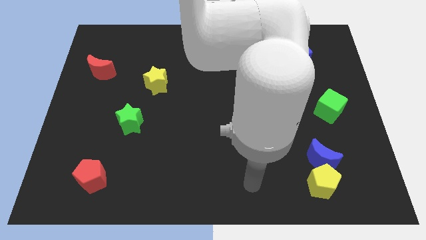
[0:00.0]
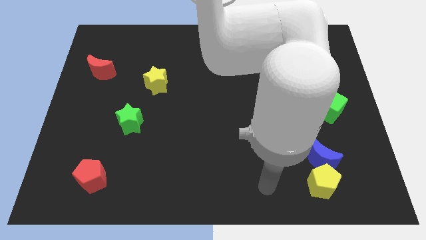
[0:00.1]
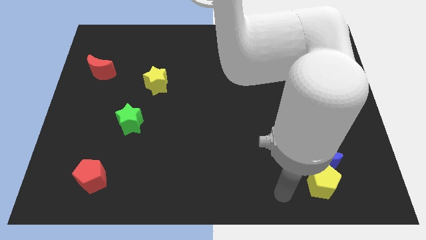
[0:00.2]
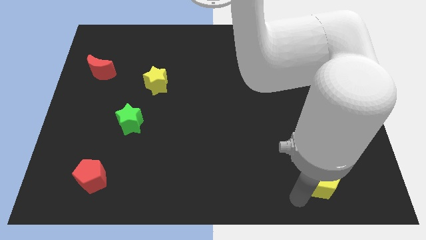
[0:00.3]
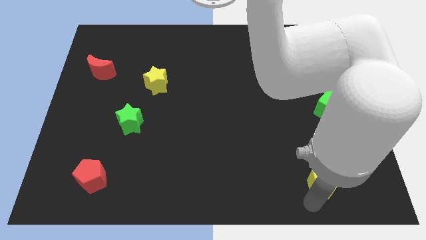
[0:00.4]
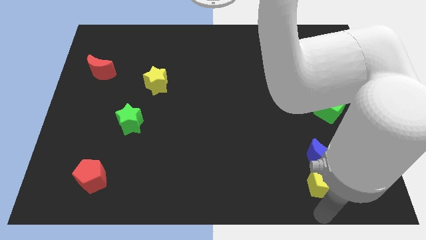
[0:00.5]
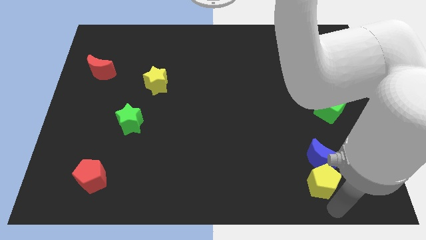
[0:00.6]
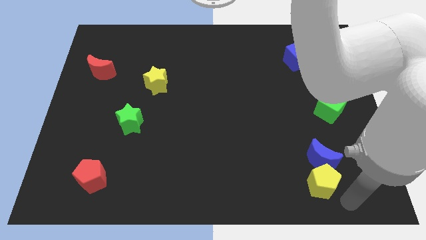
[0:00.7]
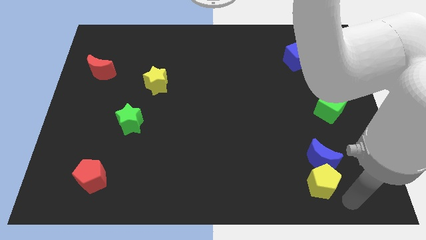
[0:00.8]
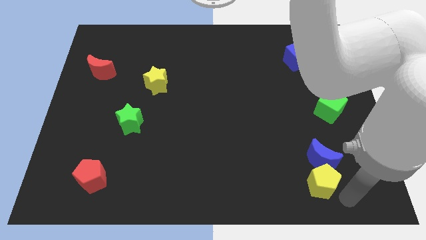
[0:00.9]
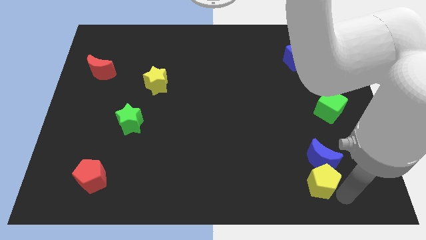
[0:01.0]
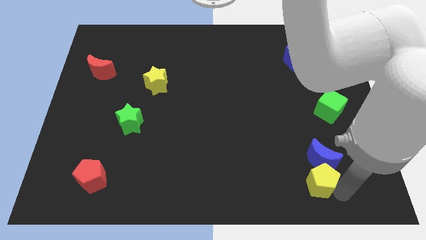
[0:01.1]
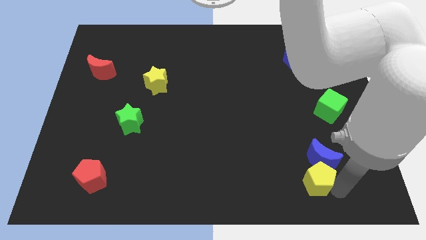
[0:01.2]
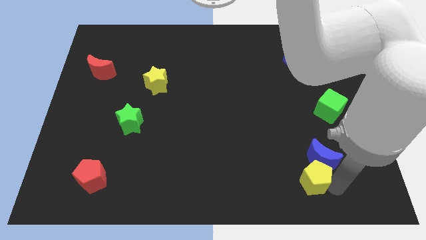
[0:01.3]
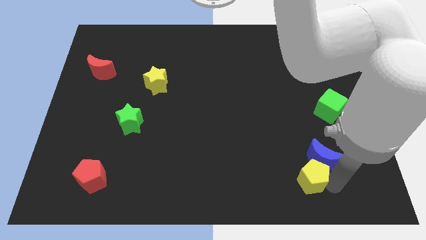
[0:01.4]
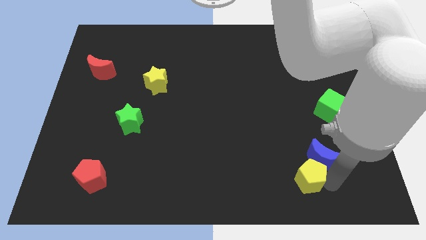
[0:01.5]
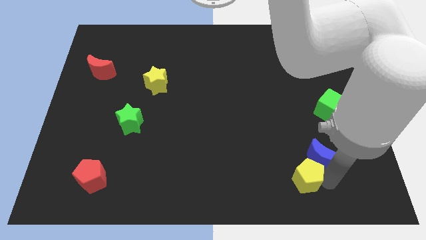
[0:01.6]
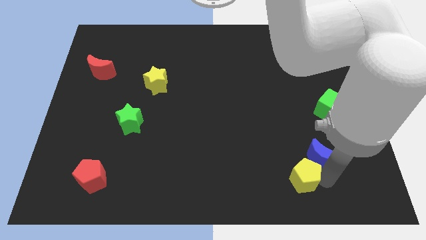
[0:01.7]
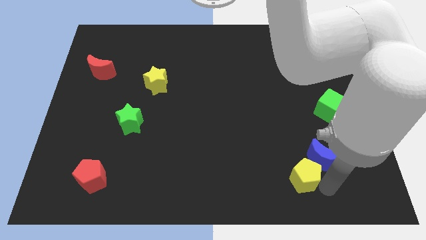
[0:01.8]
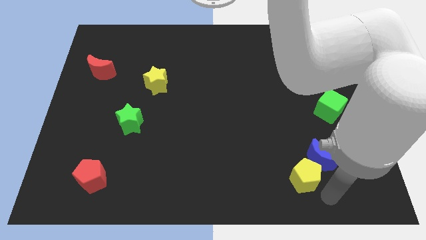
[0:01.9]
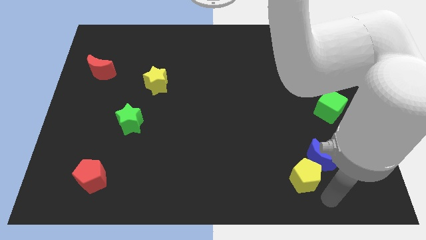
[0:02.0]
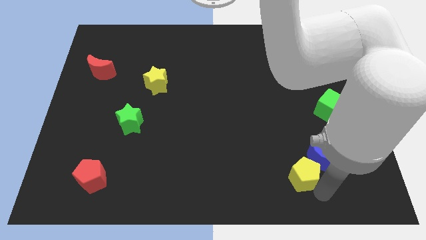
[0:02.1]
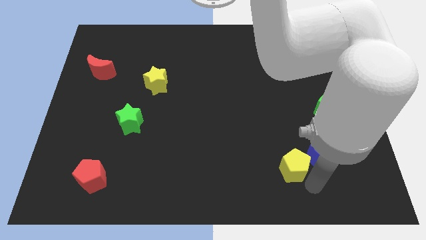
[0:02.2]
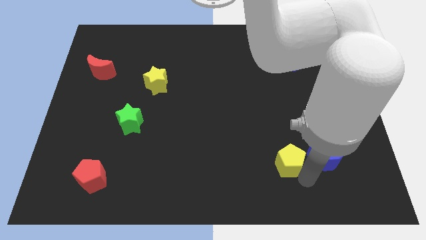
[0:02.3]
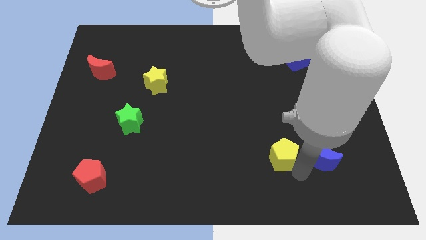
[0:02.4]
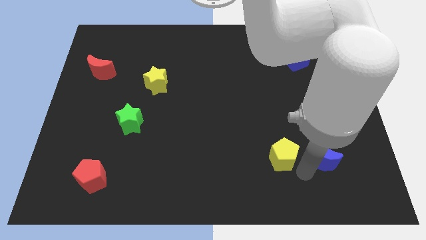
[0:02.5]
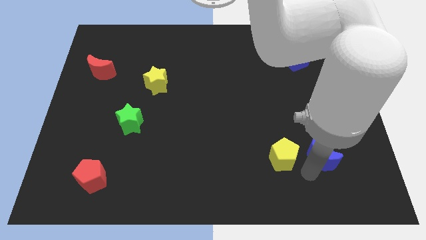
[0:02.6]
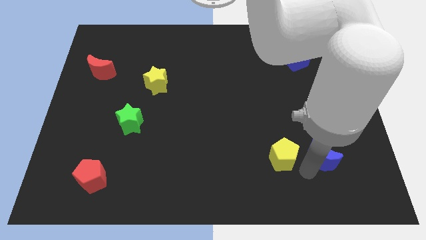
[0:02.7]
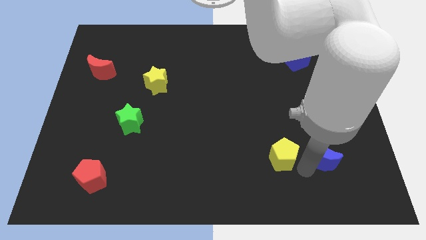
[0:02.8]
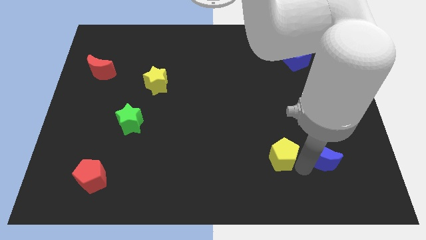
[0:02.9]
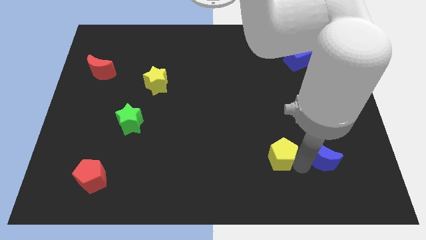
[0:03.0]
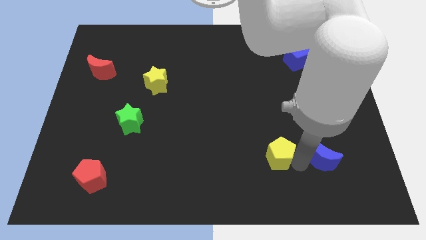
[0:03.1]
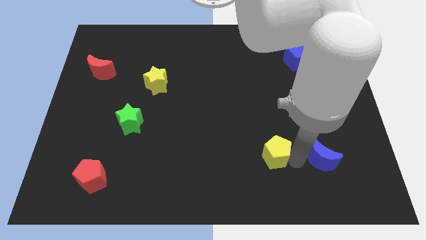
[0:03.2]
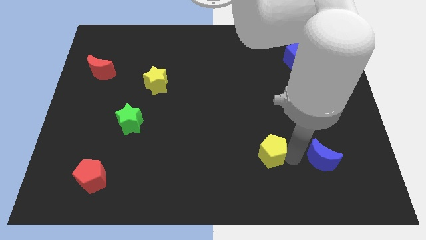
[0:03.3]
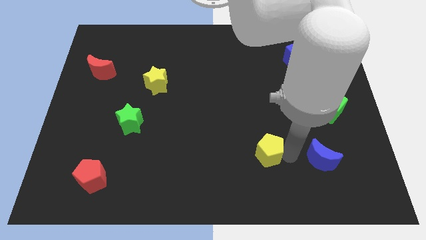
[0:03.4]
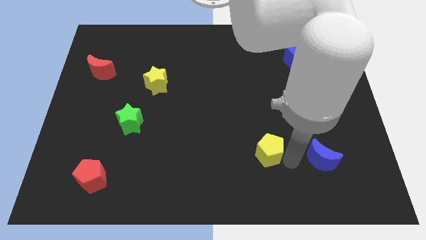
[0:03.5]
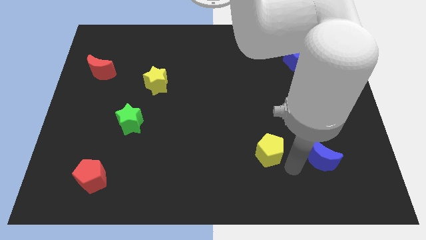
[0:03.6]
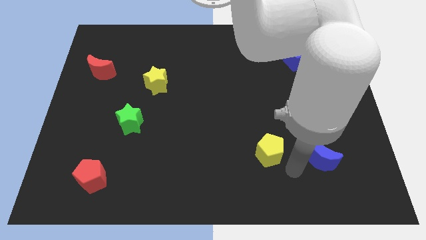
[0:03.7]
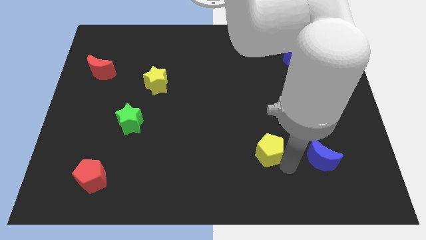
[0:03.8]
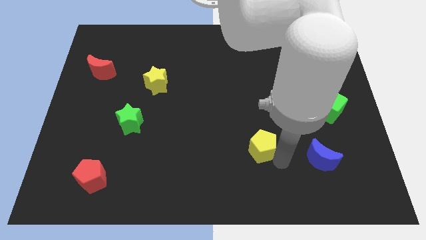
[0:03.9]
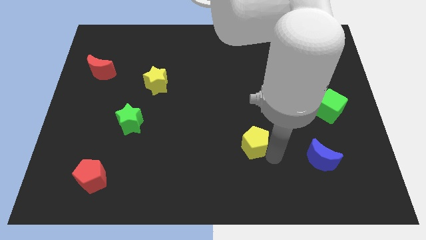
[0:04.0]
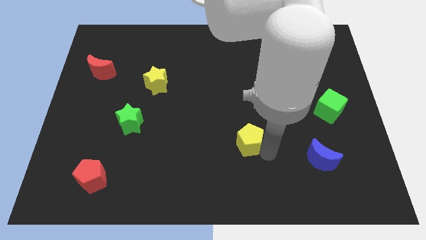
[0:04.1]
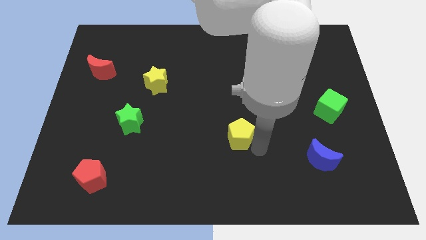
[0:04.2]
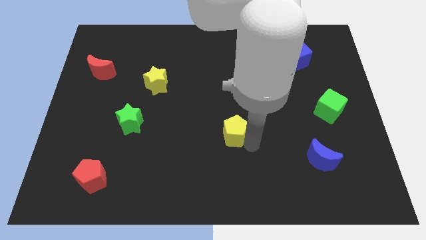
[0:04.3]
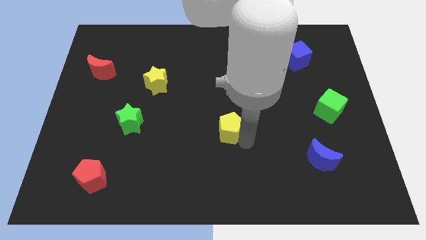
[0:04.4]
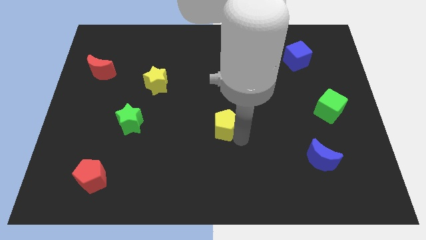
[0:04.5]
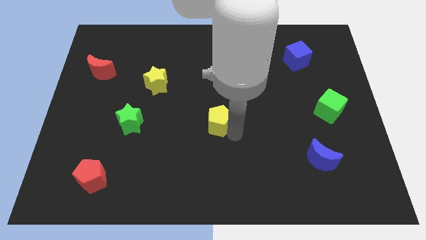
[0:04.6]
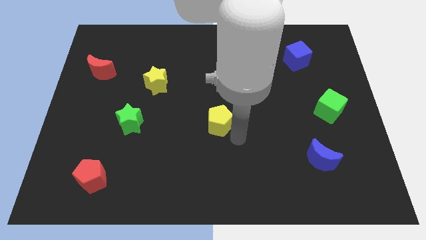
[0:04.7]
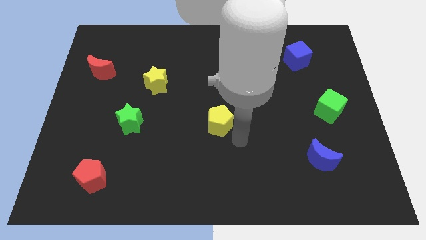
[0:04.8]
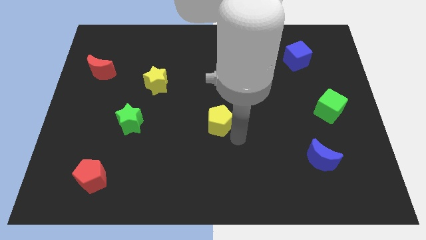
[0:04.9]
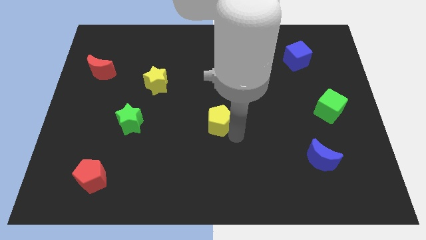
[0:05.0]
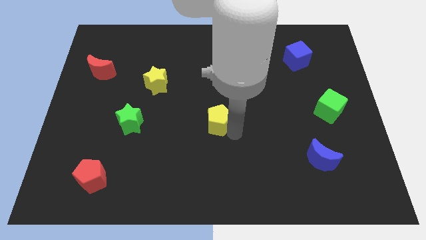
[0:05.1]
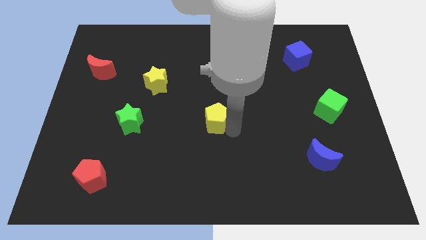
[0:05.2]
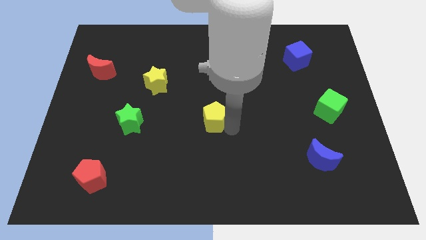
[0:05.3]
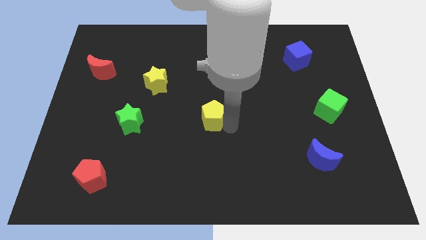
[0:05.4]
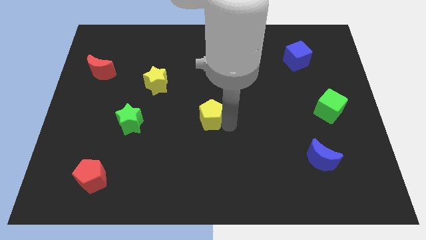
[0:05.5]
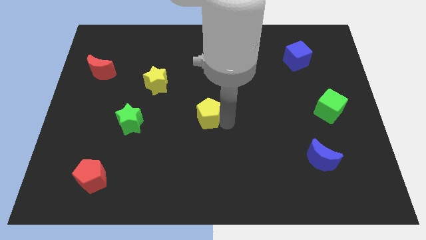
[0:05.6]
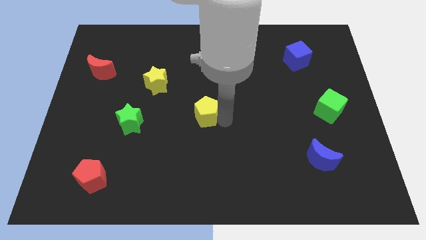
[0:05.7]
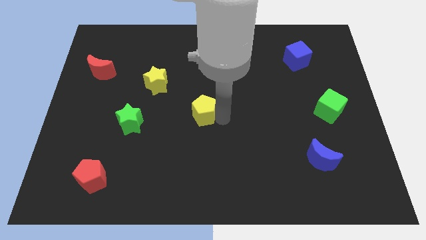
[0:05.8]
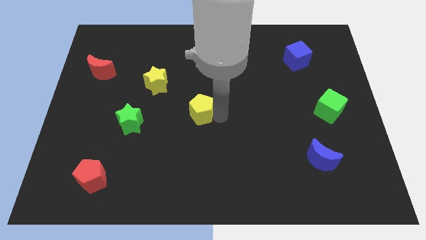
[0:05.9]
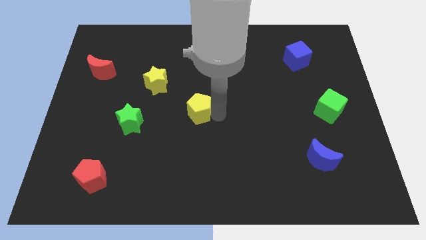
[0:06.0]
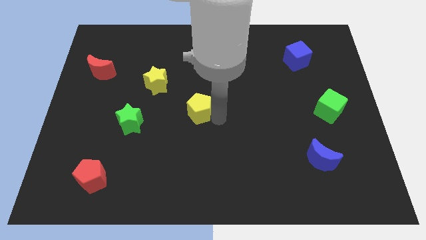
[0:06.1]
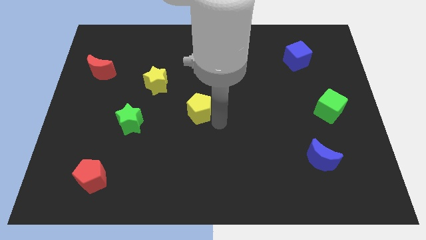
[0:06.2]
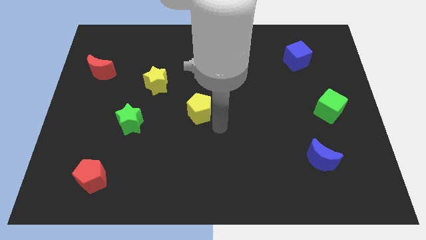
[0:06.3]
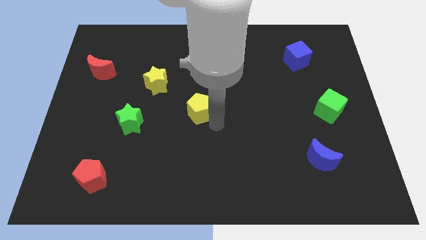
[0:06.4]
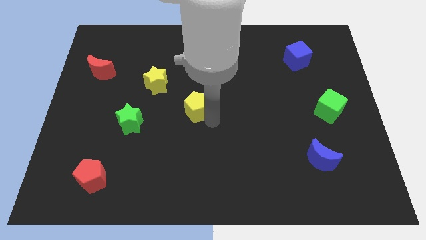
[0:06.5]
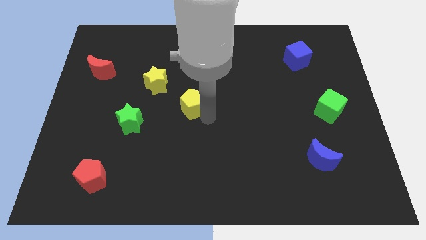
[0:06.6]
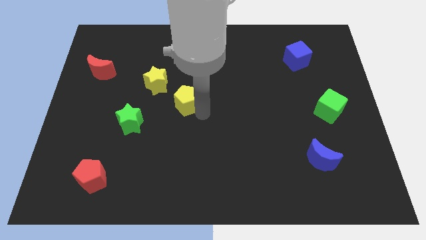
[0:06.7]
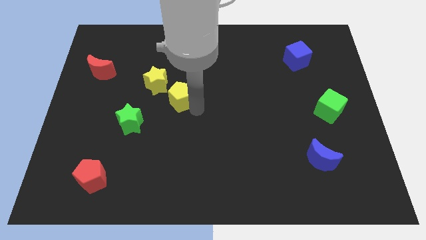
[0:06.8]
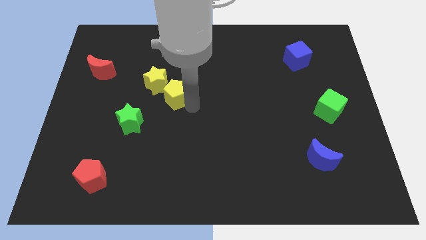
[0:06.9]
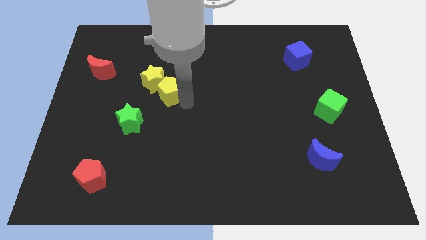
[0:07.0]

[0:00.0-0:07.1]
push the yellow pentagon close to the yellow star
